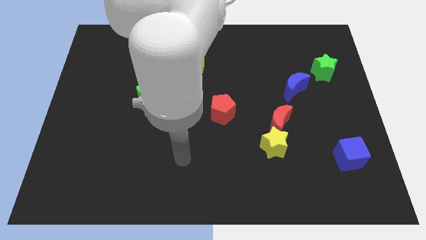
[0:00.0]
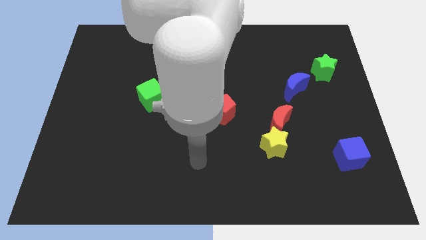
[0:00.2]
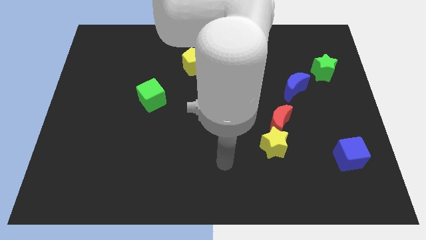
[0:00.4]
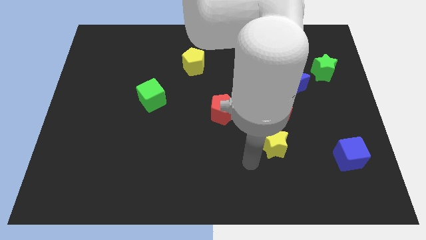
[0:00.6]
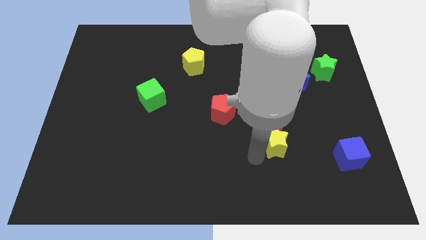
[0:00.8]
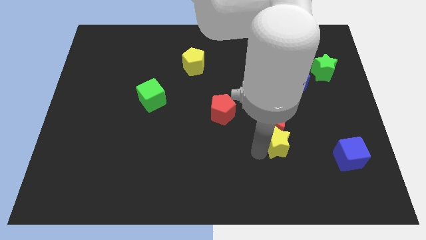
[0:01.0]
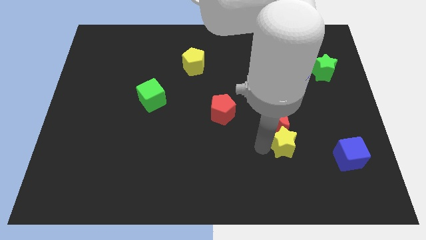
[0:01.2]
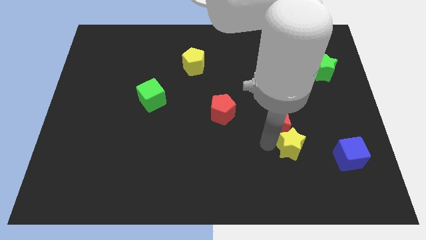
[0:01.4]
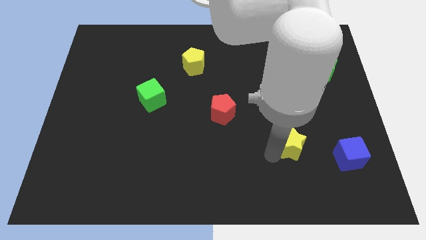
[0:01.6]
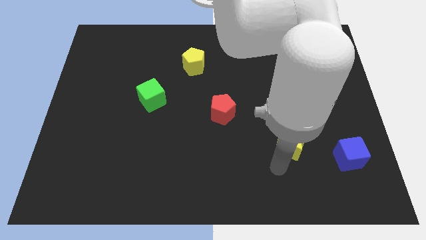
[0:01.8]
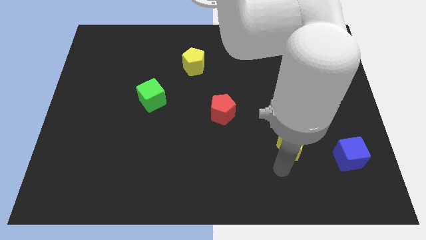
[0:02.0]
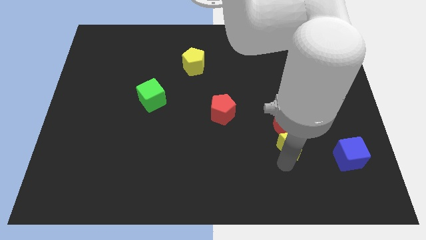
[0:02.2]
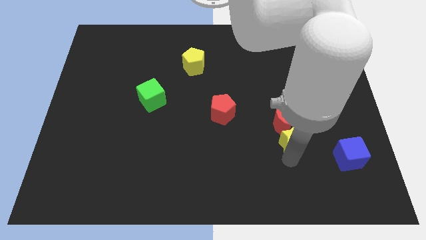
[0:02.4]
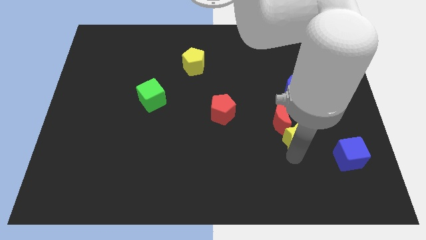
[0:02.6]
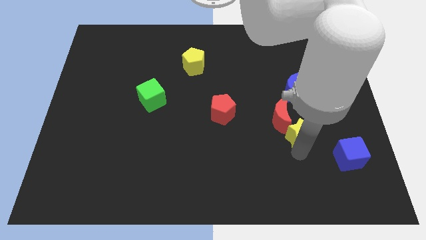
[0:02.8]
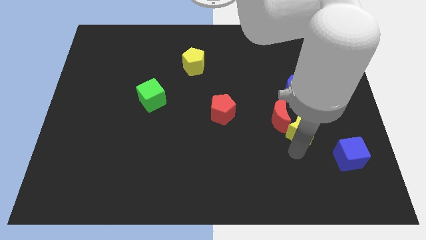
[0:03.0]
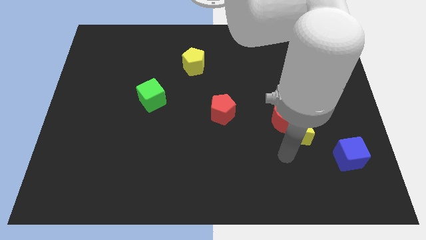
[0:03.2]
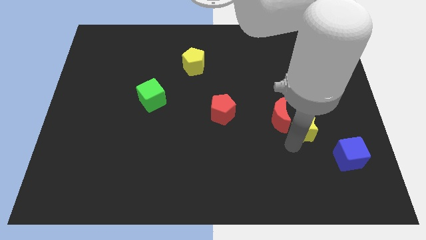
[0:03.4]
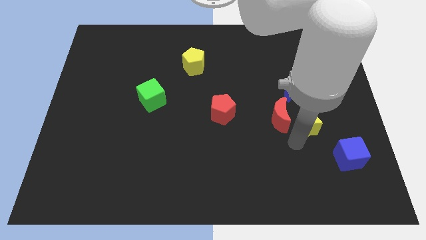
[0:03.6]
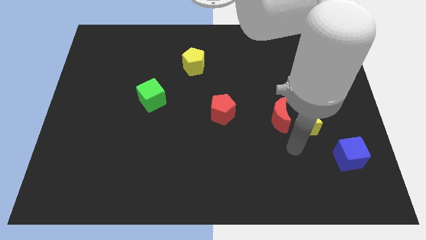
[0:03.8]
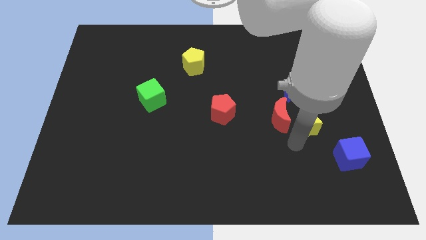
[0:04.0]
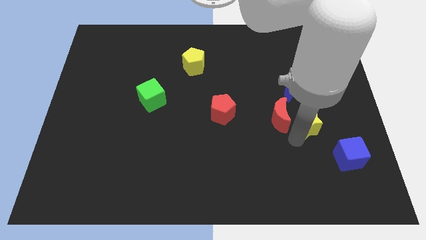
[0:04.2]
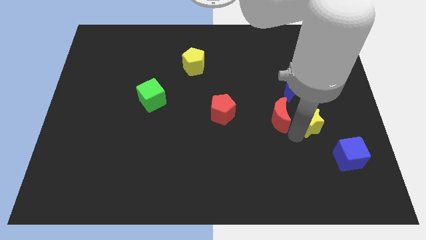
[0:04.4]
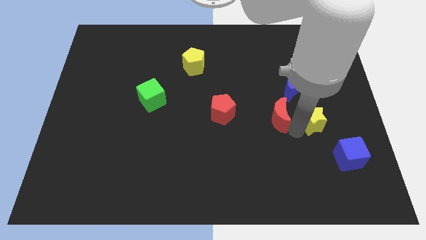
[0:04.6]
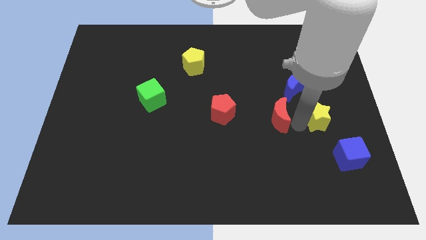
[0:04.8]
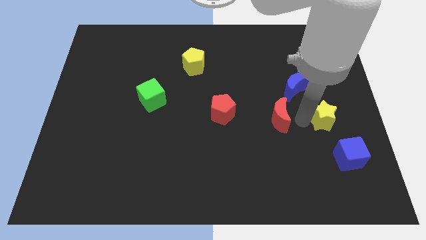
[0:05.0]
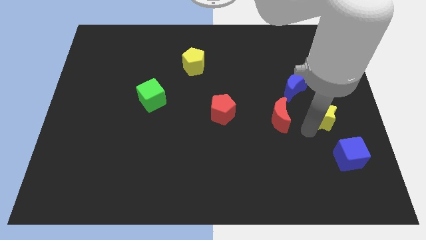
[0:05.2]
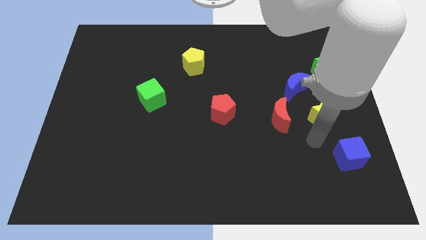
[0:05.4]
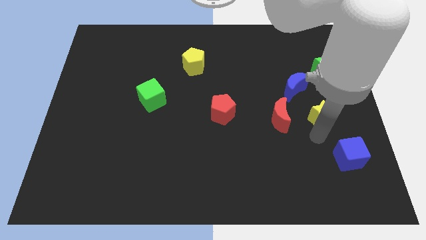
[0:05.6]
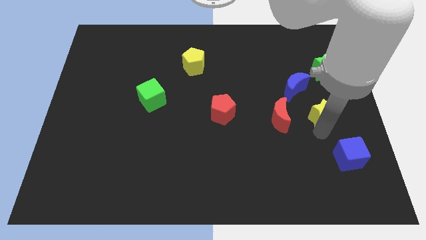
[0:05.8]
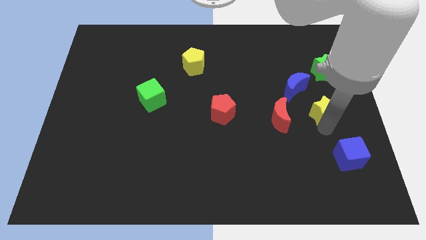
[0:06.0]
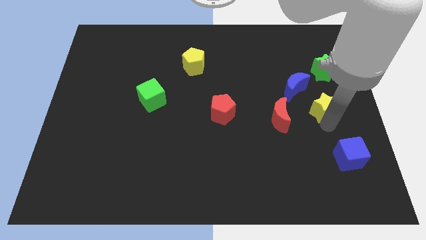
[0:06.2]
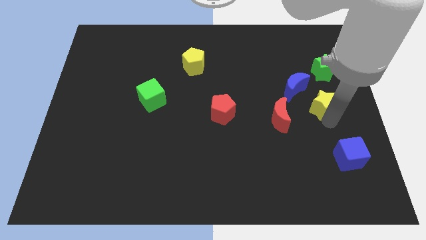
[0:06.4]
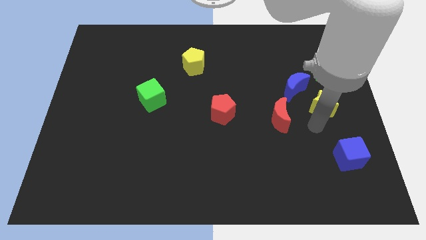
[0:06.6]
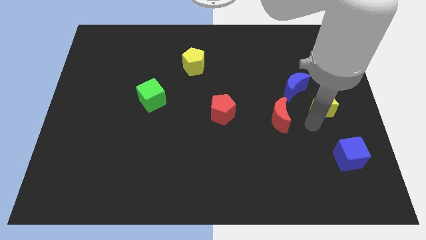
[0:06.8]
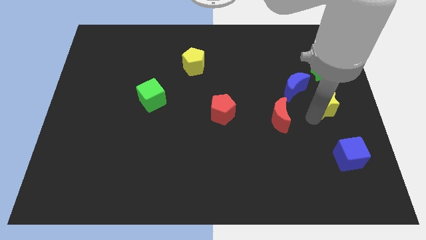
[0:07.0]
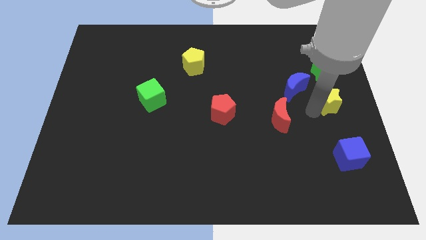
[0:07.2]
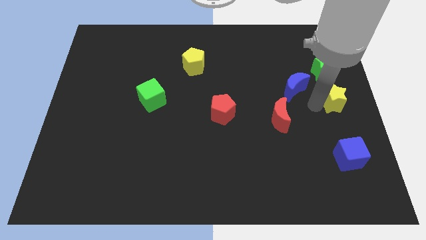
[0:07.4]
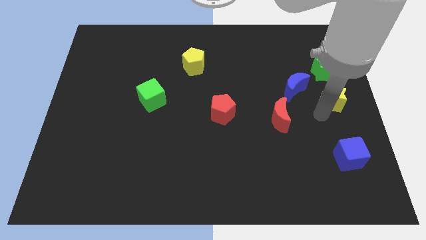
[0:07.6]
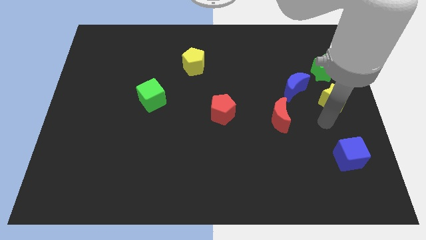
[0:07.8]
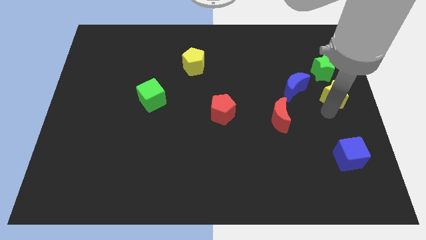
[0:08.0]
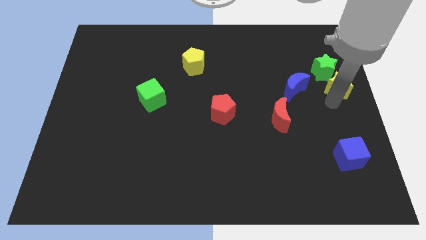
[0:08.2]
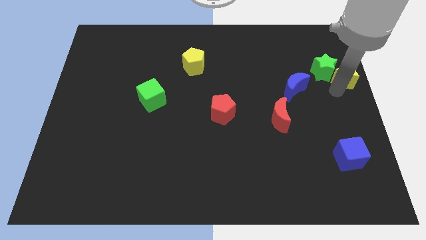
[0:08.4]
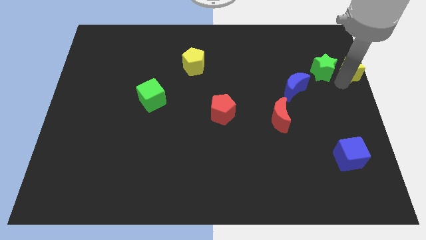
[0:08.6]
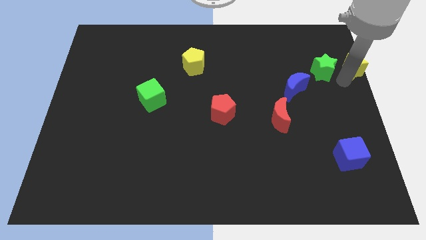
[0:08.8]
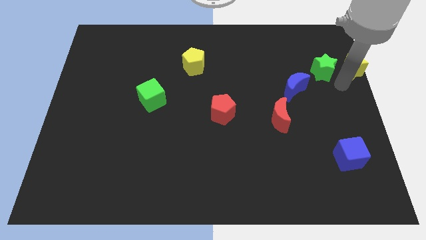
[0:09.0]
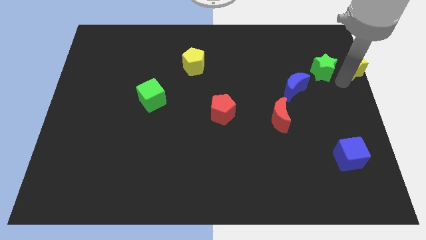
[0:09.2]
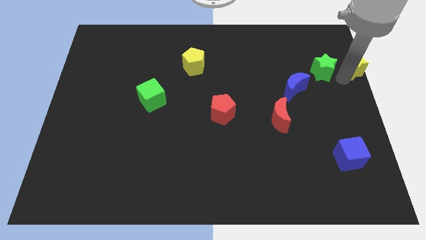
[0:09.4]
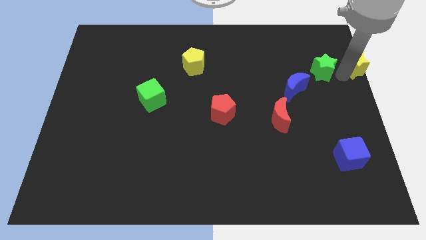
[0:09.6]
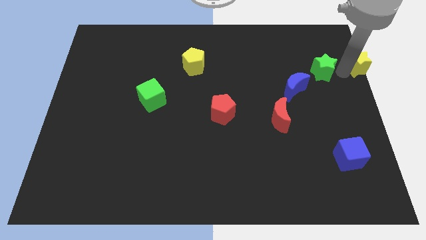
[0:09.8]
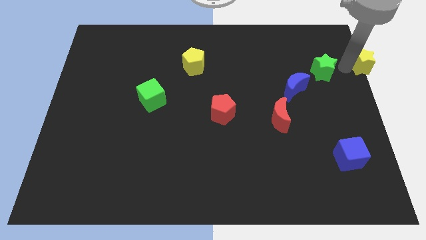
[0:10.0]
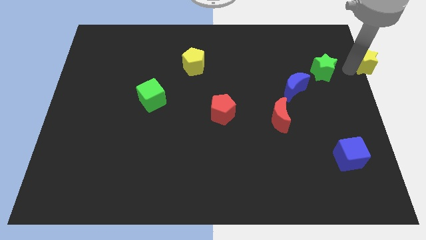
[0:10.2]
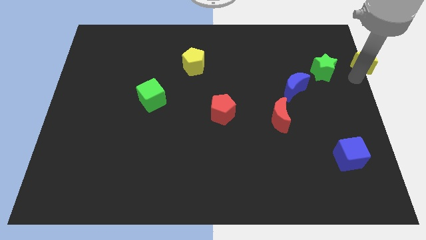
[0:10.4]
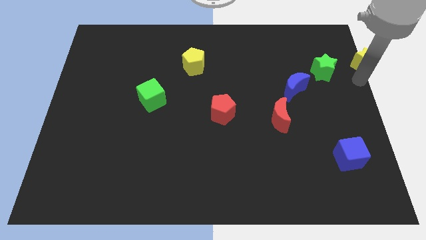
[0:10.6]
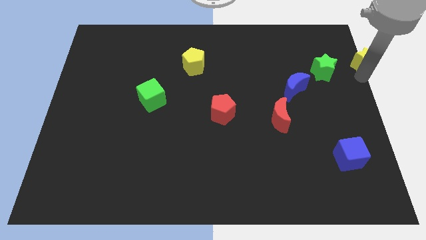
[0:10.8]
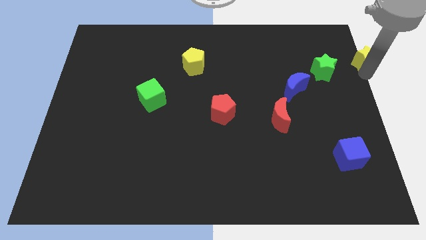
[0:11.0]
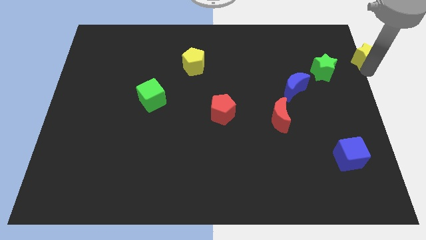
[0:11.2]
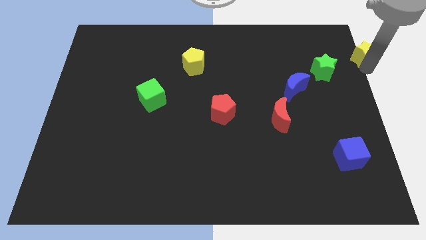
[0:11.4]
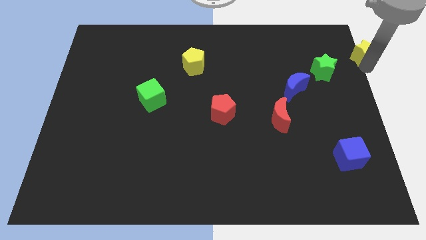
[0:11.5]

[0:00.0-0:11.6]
slide the yellow star to the top right
